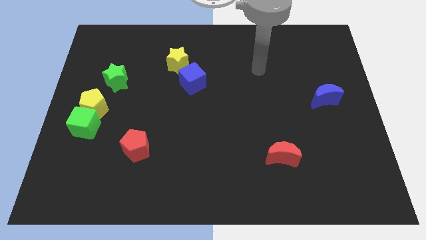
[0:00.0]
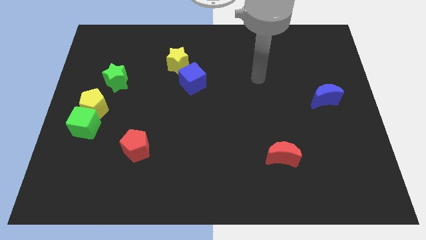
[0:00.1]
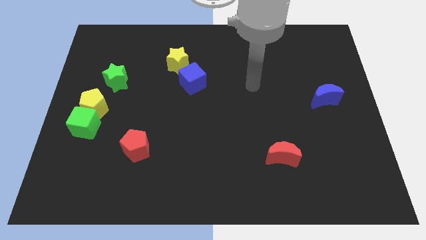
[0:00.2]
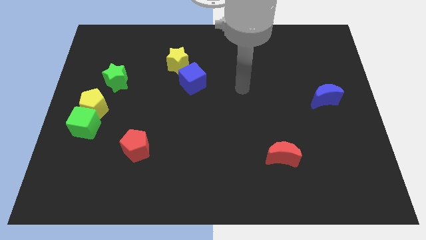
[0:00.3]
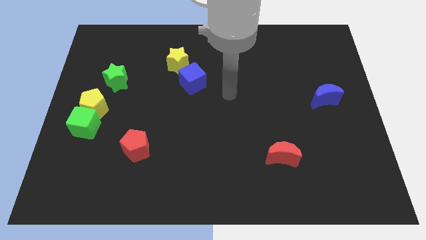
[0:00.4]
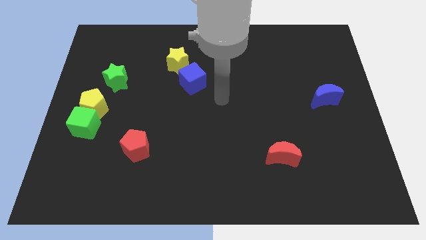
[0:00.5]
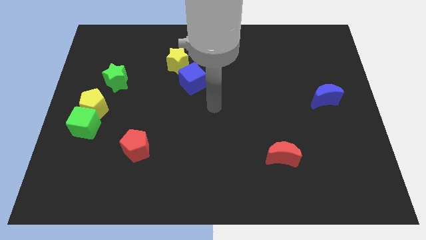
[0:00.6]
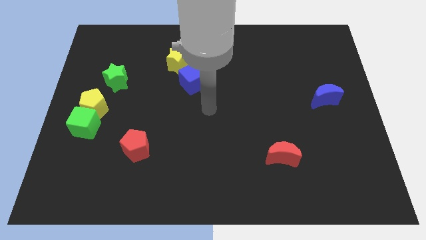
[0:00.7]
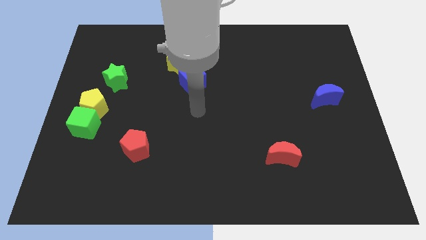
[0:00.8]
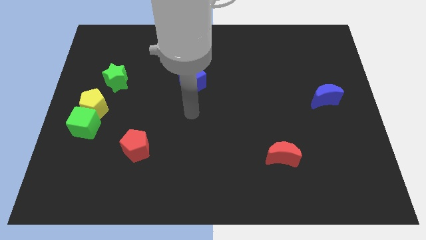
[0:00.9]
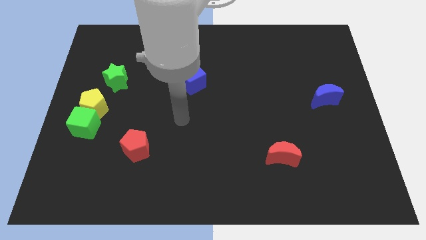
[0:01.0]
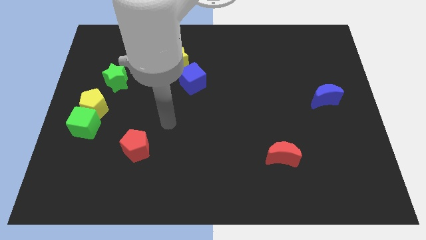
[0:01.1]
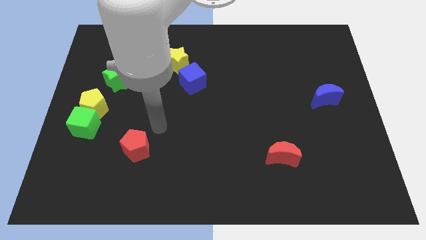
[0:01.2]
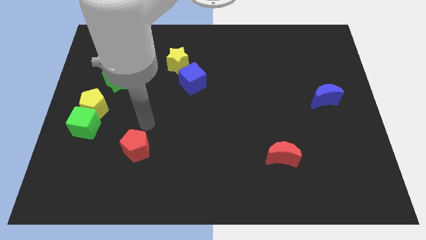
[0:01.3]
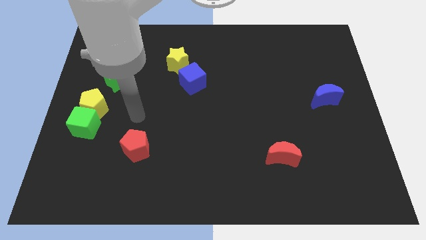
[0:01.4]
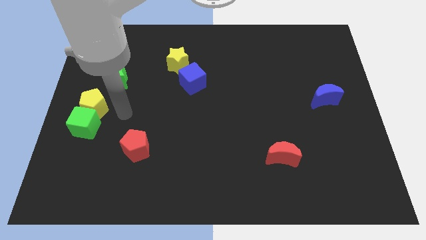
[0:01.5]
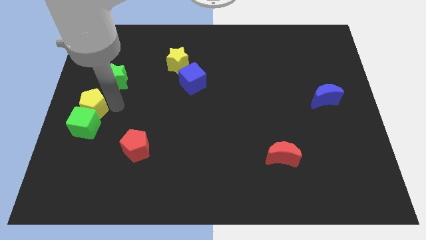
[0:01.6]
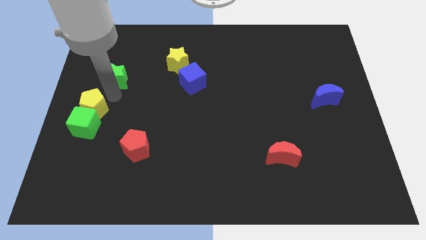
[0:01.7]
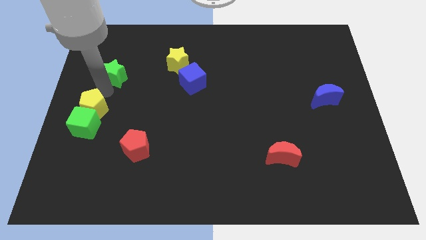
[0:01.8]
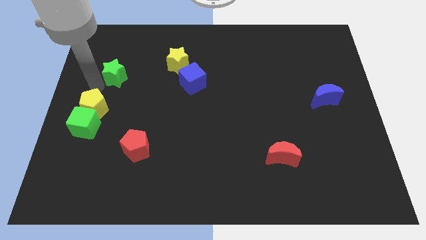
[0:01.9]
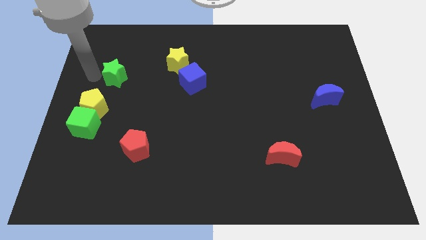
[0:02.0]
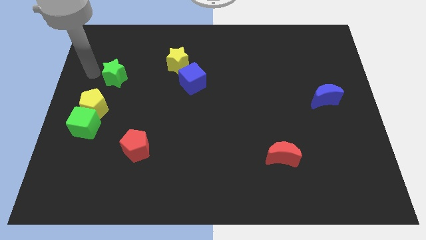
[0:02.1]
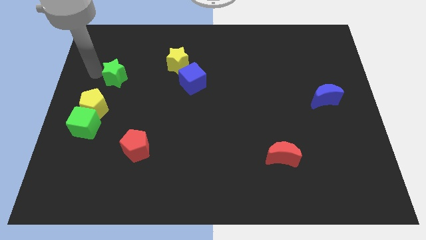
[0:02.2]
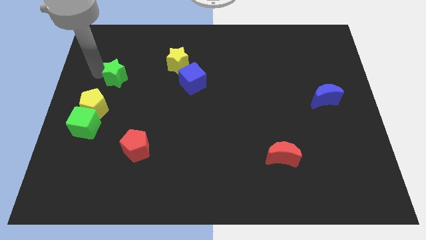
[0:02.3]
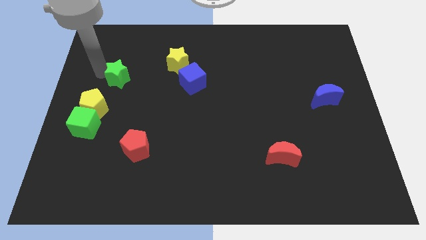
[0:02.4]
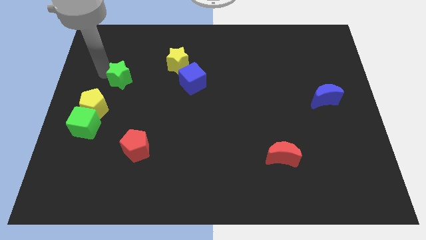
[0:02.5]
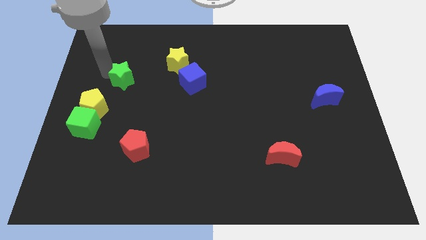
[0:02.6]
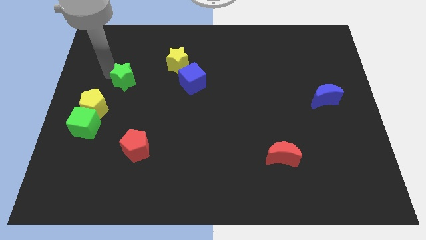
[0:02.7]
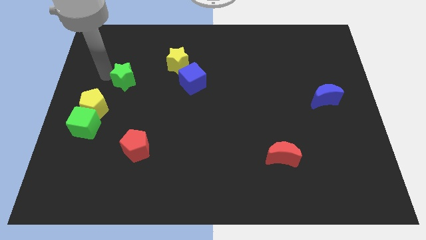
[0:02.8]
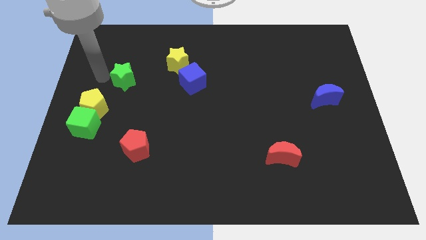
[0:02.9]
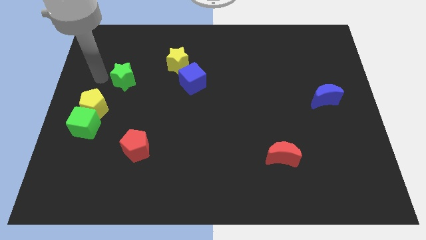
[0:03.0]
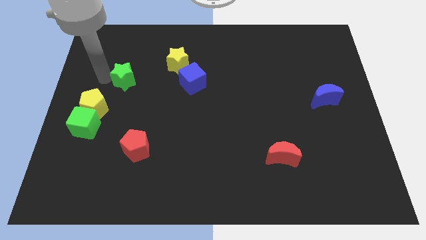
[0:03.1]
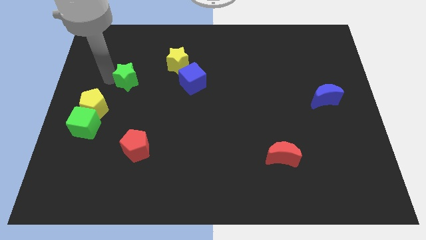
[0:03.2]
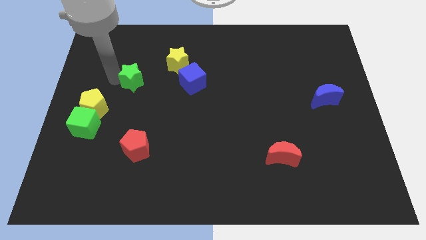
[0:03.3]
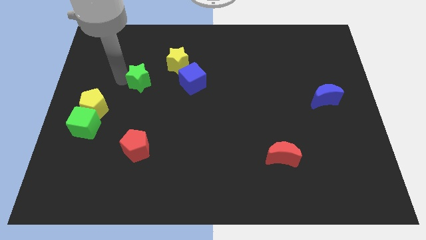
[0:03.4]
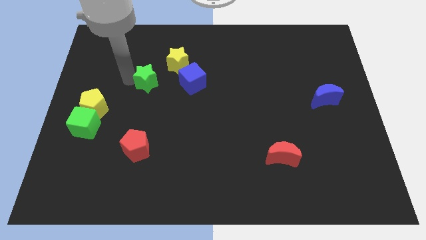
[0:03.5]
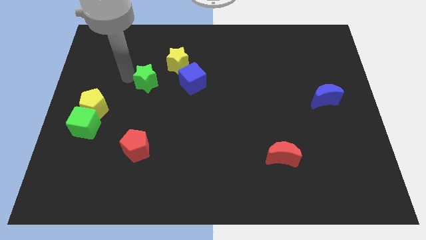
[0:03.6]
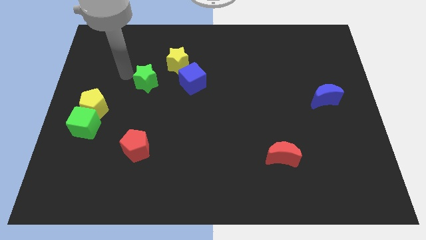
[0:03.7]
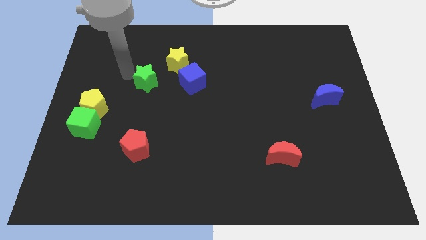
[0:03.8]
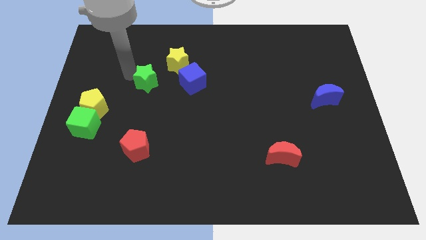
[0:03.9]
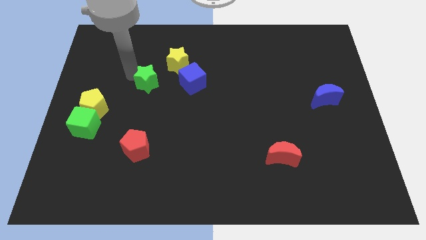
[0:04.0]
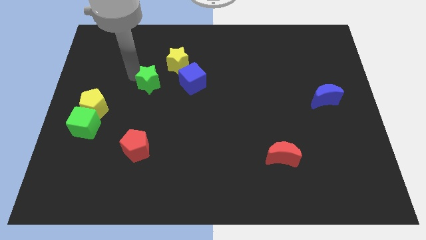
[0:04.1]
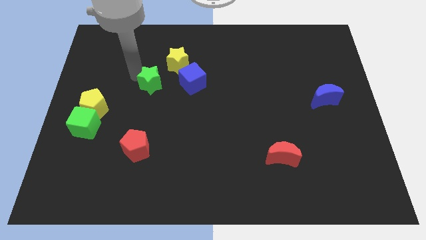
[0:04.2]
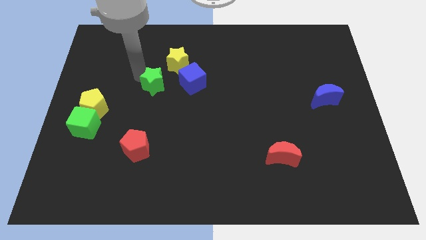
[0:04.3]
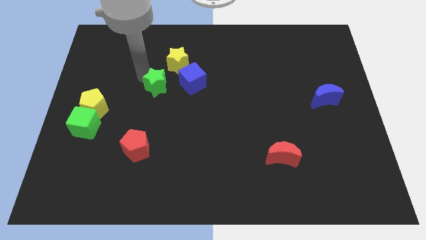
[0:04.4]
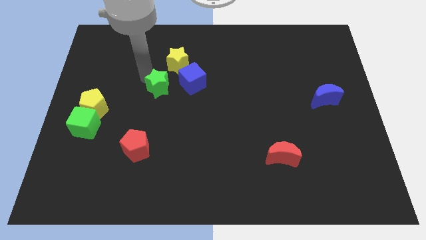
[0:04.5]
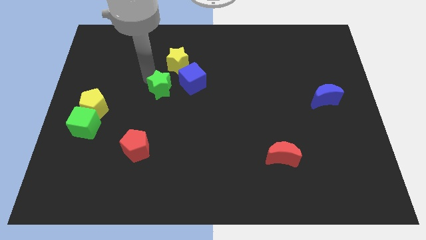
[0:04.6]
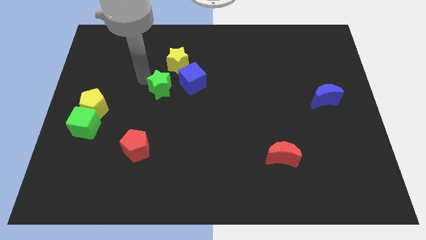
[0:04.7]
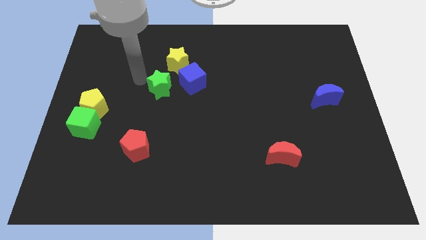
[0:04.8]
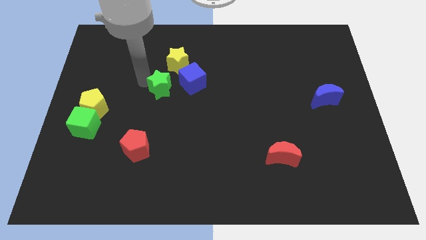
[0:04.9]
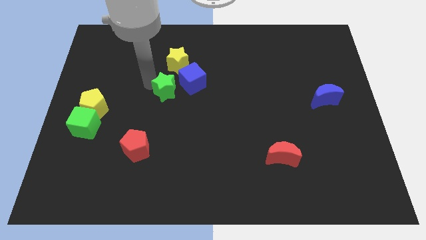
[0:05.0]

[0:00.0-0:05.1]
slide the green star to the center

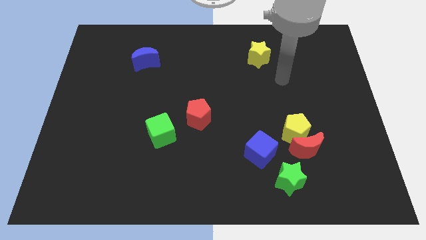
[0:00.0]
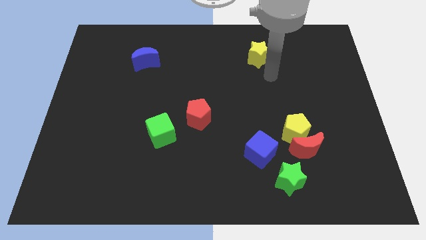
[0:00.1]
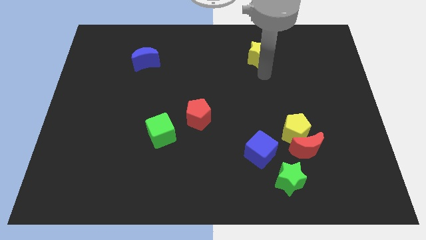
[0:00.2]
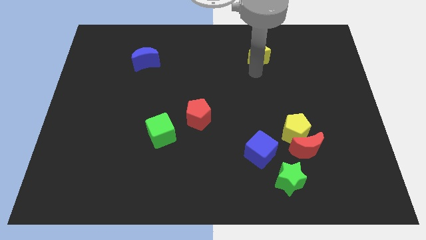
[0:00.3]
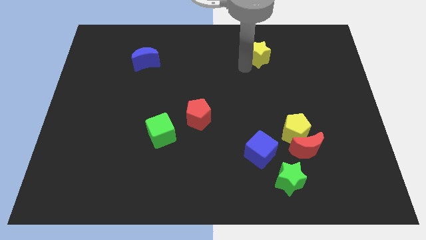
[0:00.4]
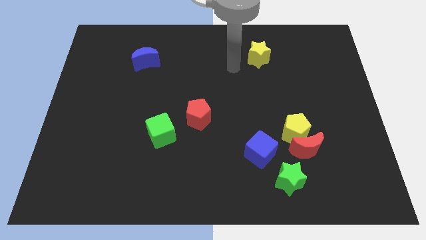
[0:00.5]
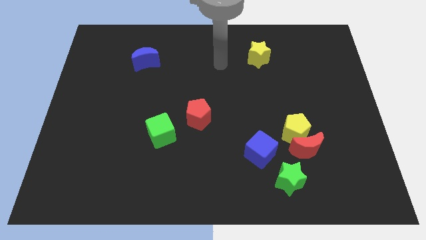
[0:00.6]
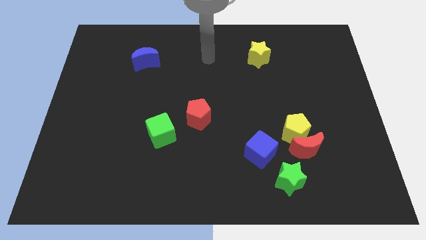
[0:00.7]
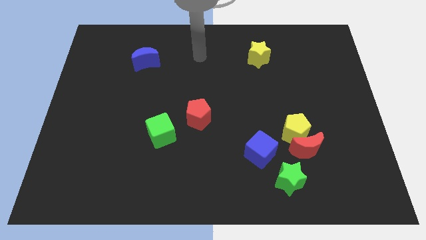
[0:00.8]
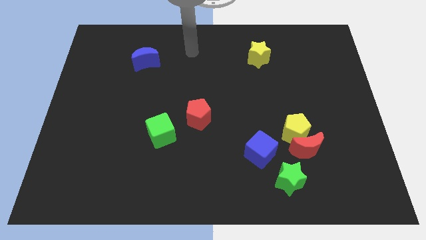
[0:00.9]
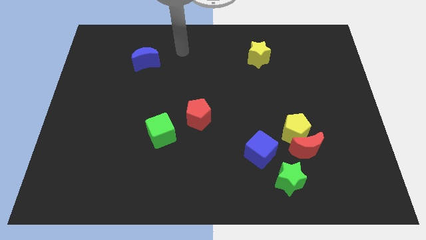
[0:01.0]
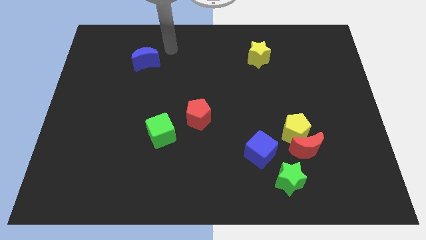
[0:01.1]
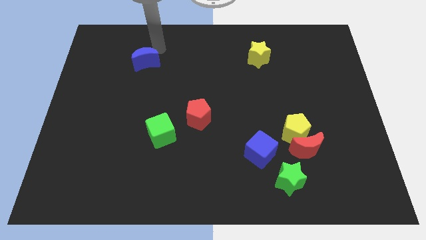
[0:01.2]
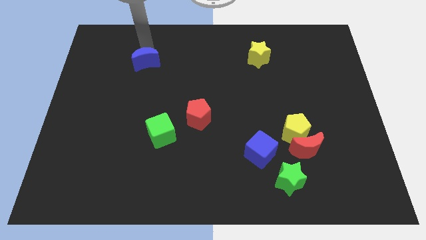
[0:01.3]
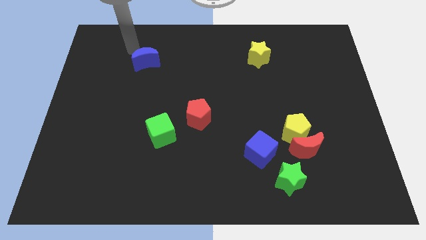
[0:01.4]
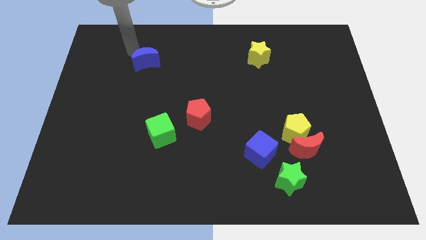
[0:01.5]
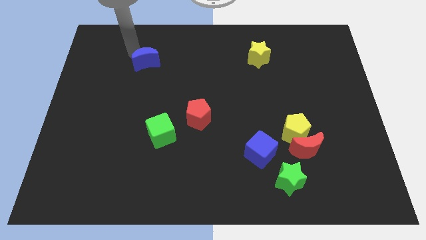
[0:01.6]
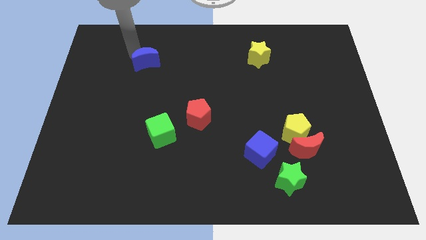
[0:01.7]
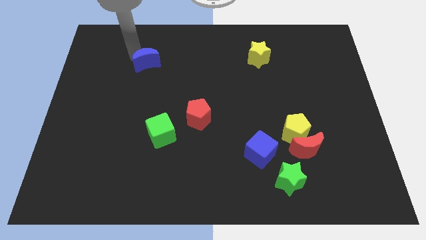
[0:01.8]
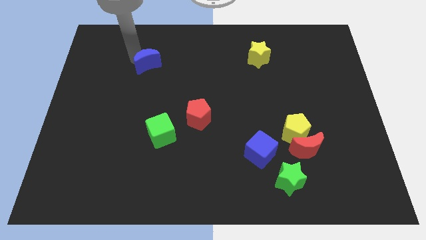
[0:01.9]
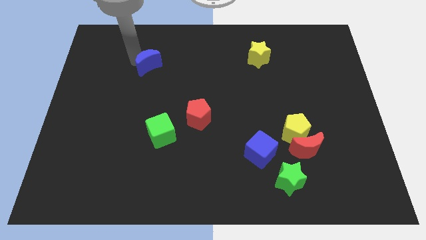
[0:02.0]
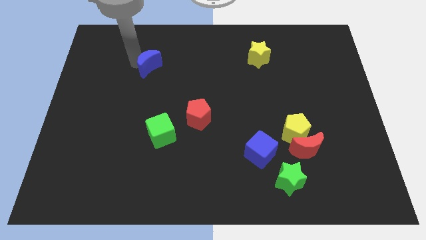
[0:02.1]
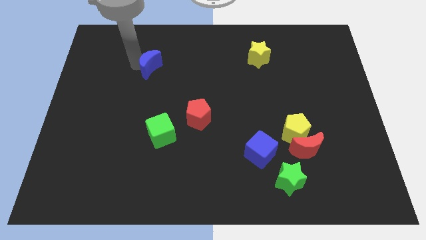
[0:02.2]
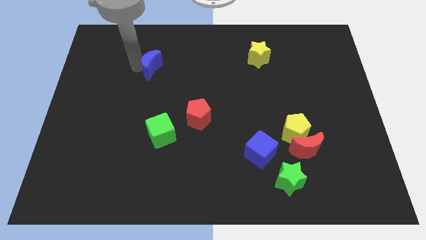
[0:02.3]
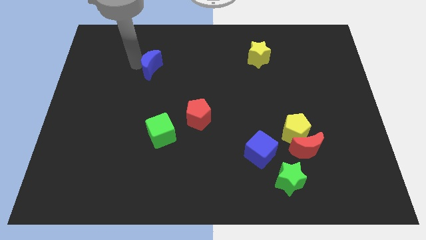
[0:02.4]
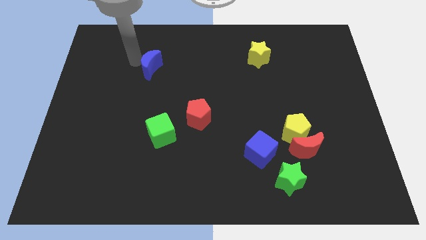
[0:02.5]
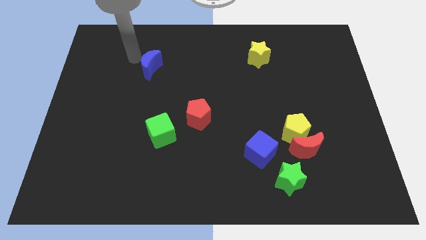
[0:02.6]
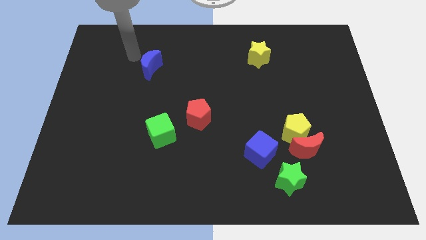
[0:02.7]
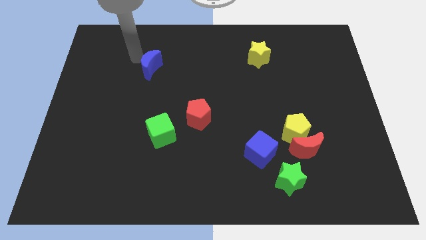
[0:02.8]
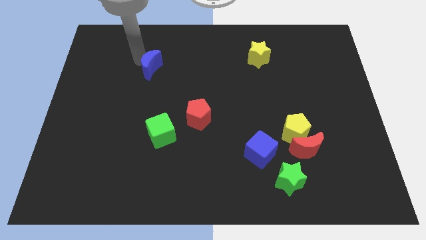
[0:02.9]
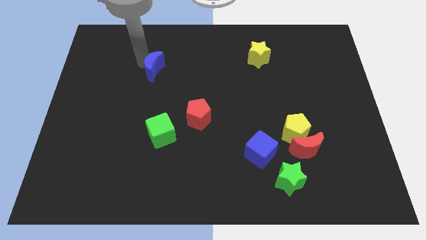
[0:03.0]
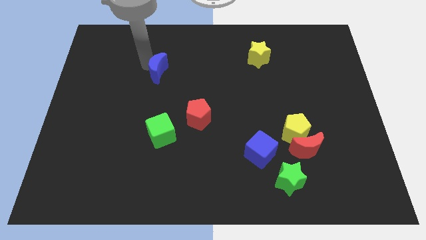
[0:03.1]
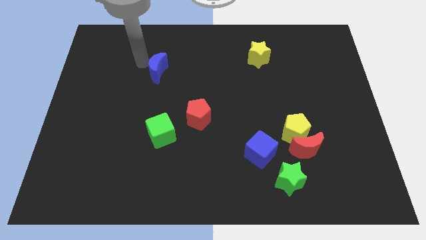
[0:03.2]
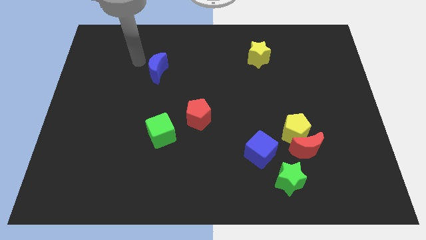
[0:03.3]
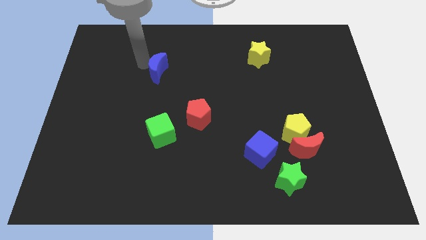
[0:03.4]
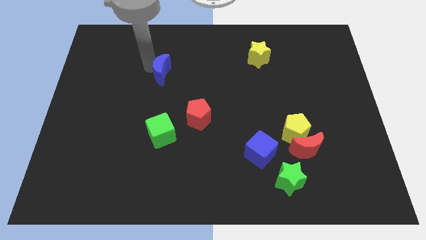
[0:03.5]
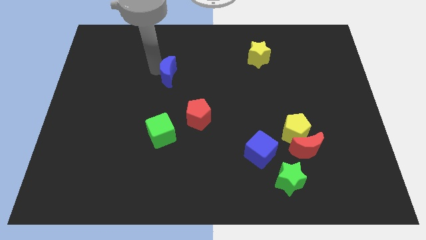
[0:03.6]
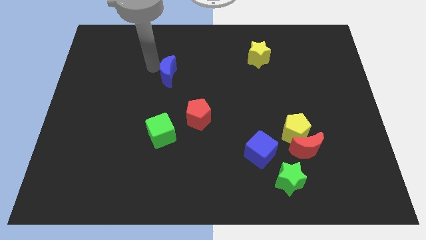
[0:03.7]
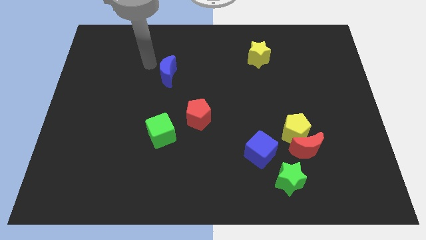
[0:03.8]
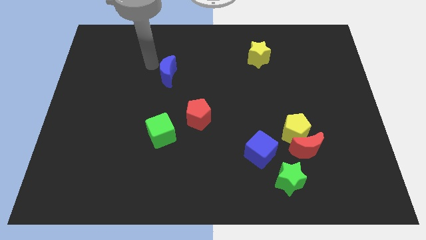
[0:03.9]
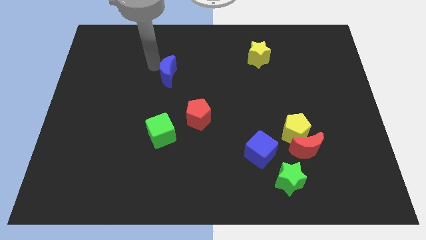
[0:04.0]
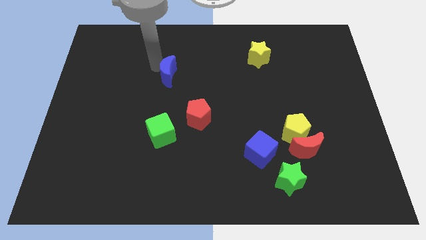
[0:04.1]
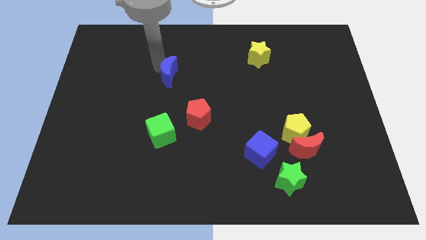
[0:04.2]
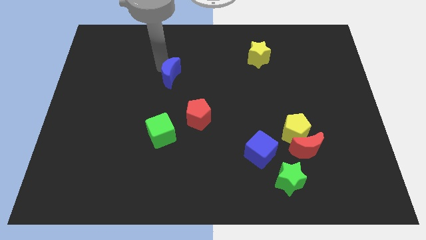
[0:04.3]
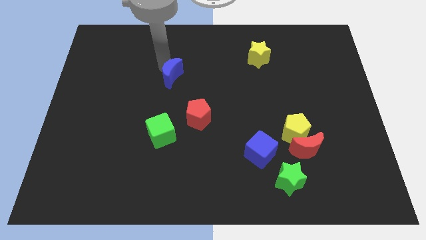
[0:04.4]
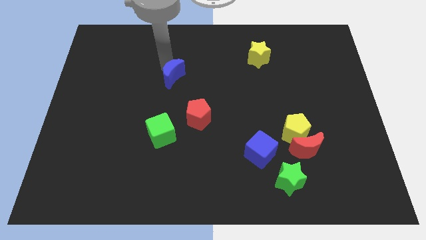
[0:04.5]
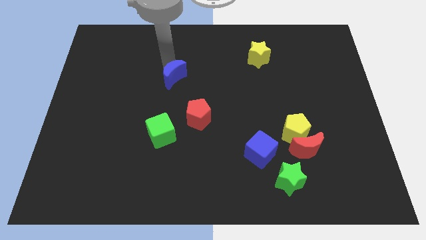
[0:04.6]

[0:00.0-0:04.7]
move the blue moon to the center of the board
